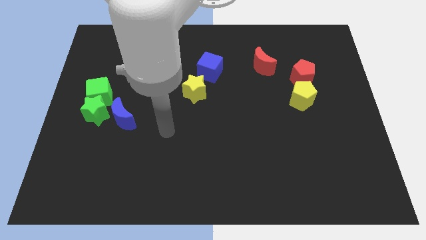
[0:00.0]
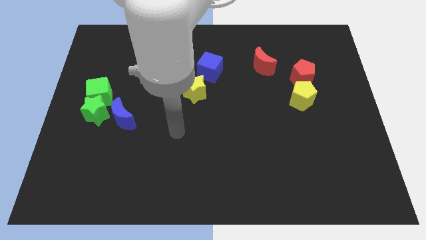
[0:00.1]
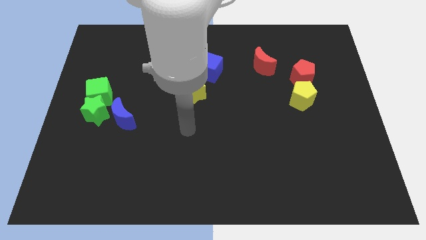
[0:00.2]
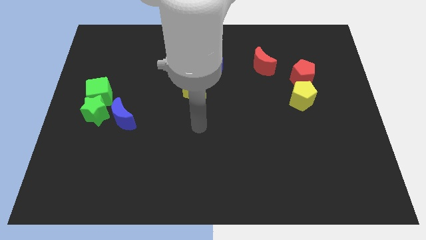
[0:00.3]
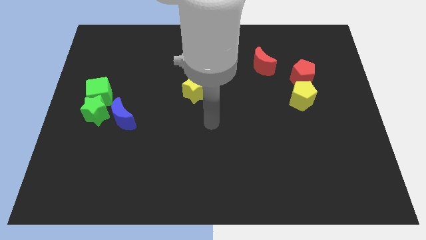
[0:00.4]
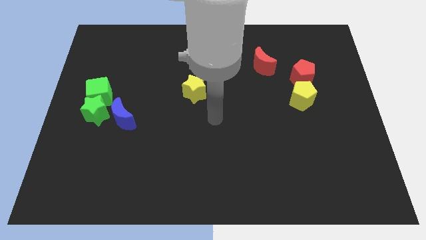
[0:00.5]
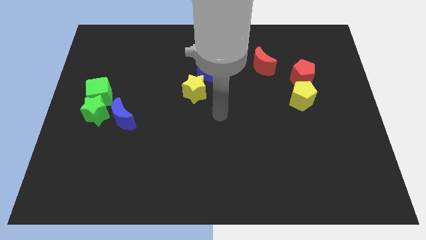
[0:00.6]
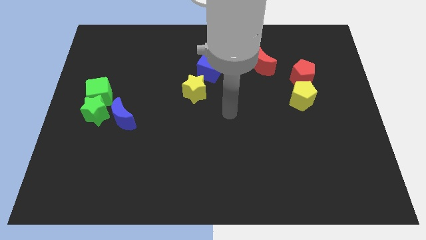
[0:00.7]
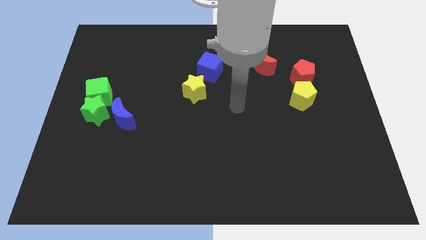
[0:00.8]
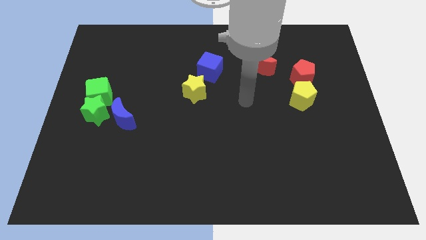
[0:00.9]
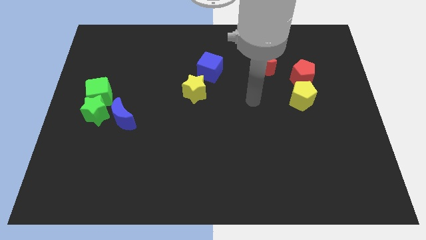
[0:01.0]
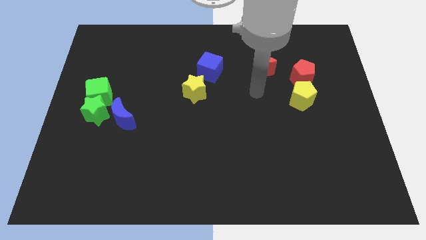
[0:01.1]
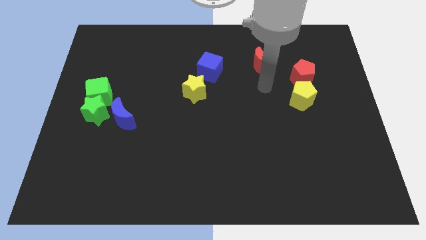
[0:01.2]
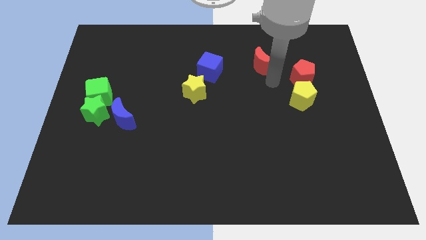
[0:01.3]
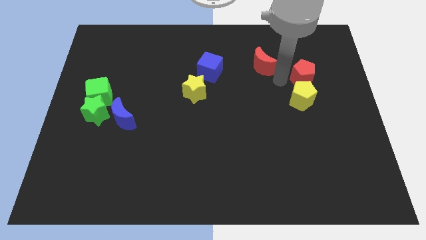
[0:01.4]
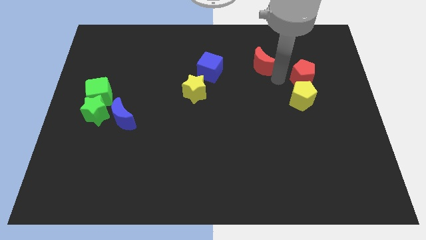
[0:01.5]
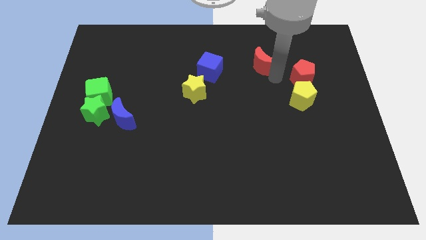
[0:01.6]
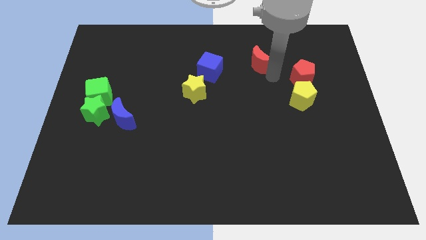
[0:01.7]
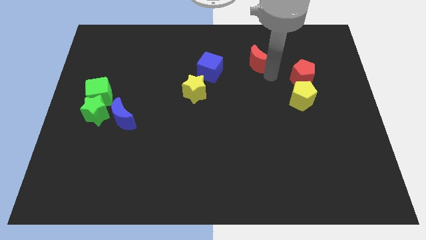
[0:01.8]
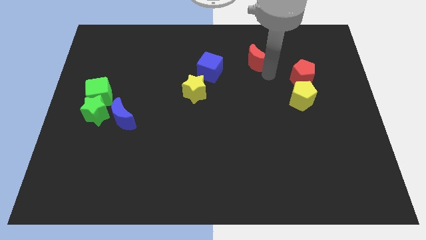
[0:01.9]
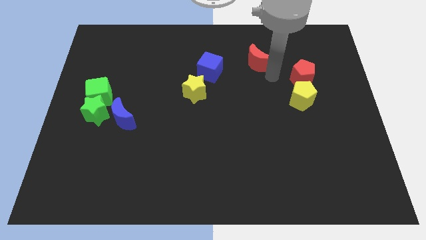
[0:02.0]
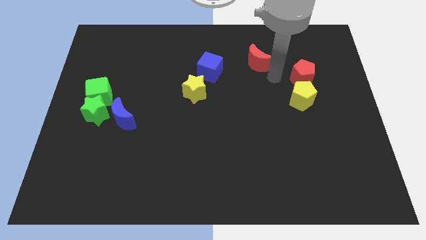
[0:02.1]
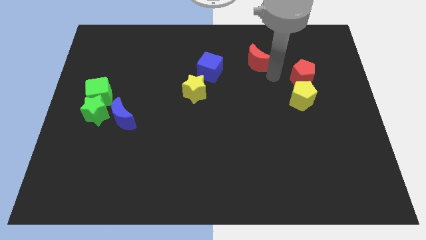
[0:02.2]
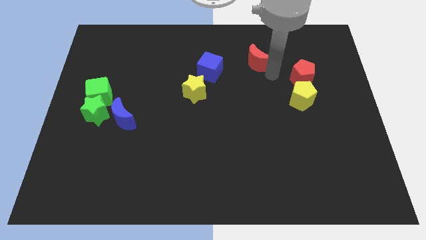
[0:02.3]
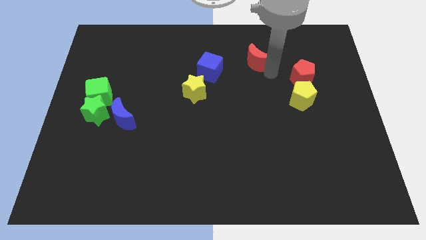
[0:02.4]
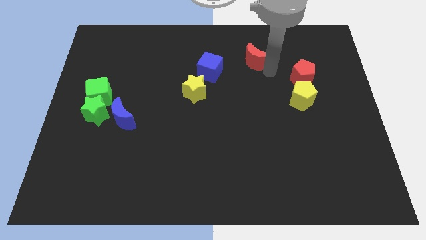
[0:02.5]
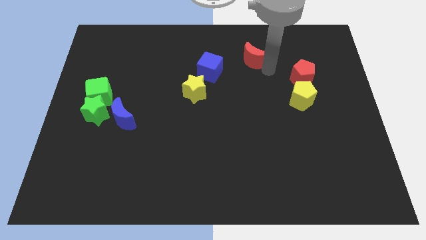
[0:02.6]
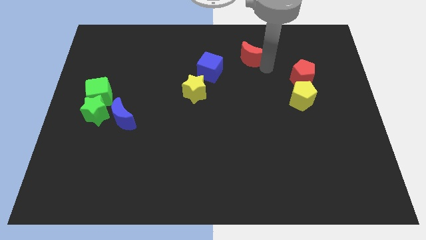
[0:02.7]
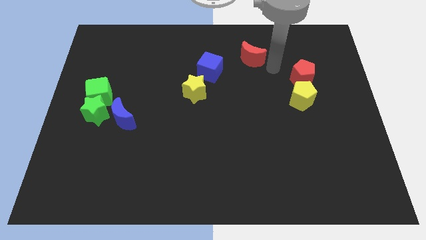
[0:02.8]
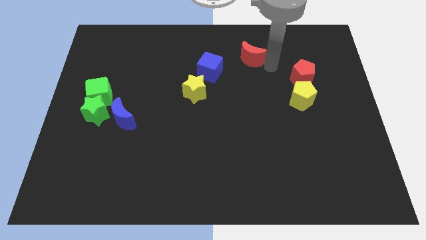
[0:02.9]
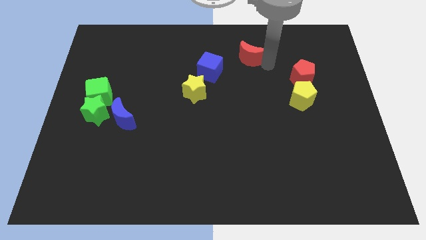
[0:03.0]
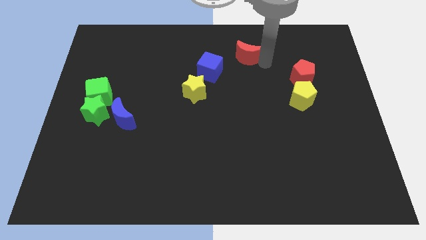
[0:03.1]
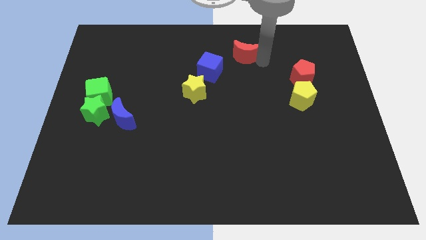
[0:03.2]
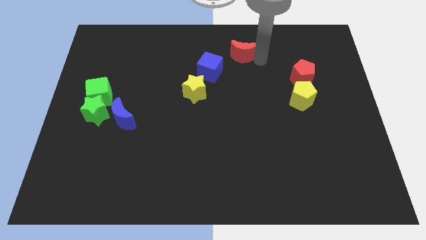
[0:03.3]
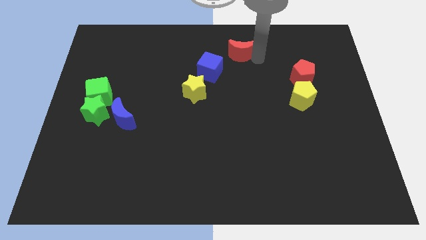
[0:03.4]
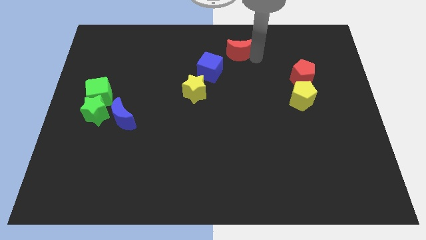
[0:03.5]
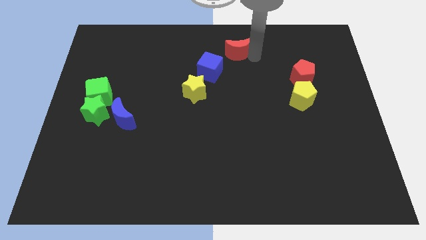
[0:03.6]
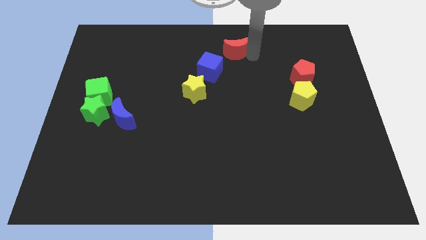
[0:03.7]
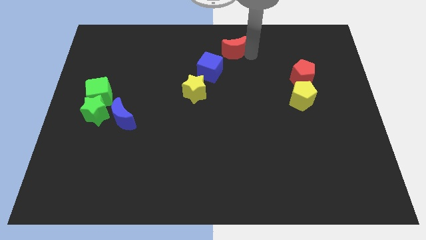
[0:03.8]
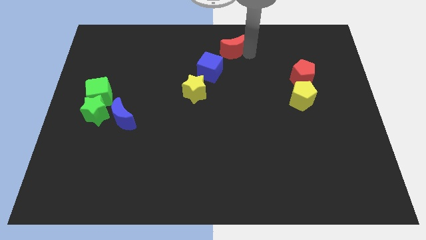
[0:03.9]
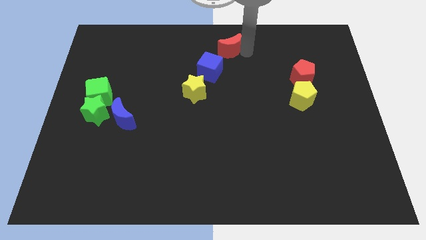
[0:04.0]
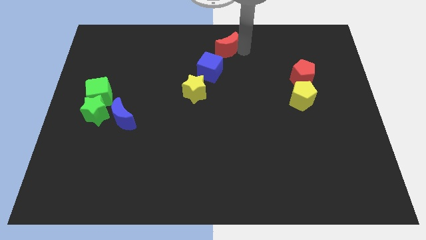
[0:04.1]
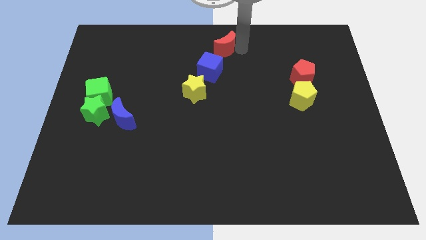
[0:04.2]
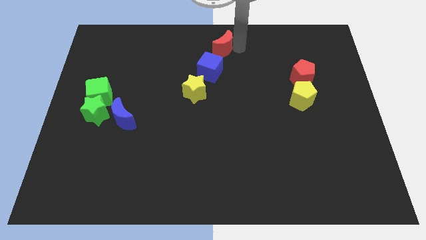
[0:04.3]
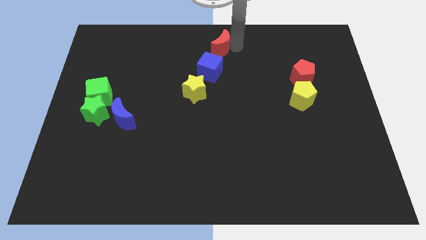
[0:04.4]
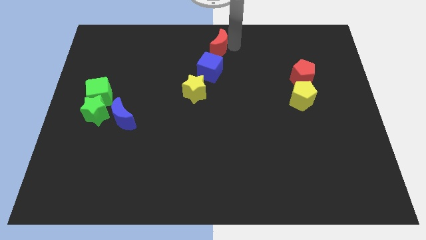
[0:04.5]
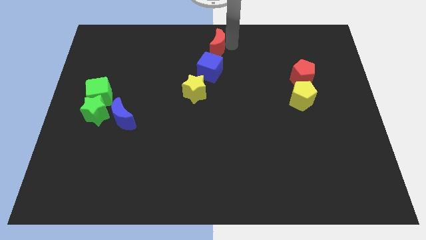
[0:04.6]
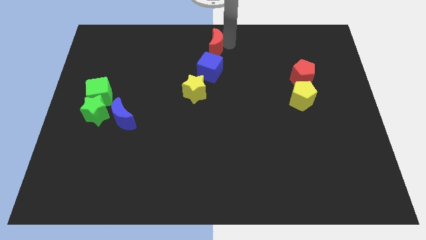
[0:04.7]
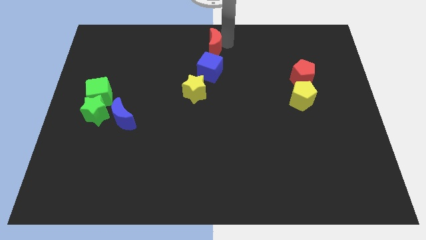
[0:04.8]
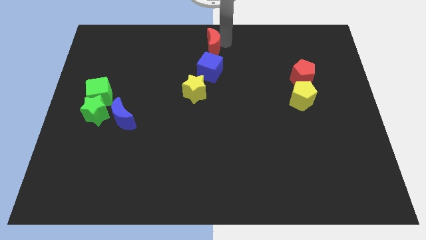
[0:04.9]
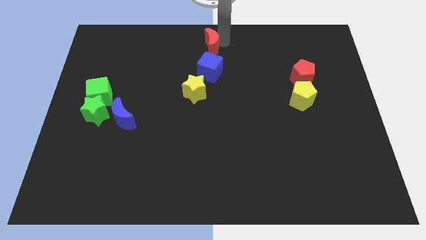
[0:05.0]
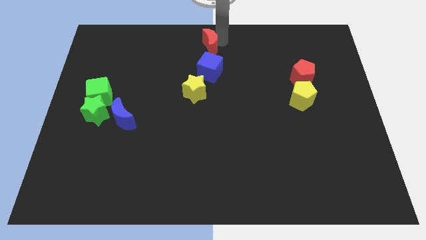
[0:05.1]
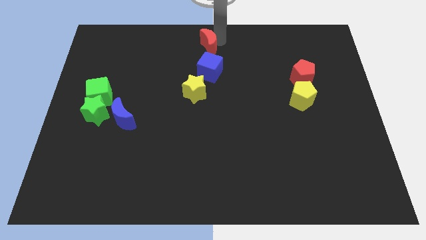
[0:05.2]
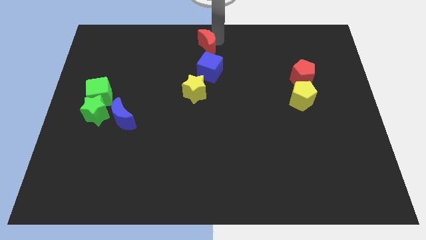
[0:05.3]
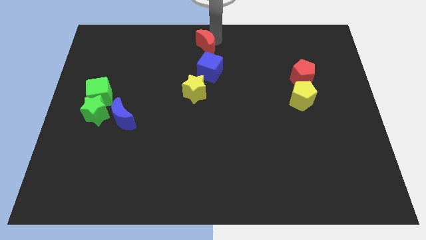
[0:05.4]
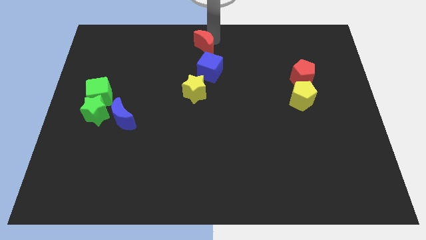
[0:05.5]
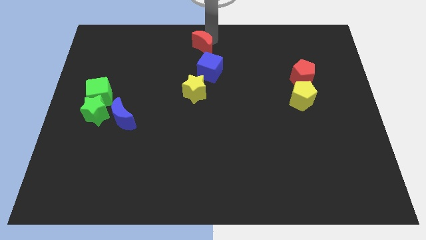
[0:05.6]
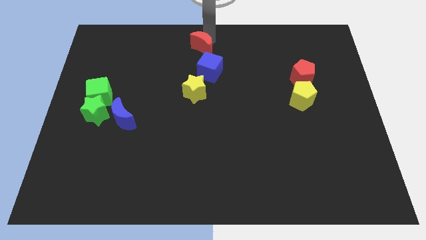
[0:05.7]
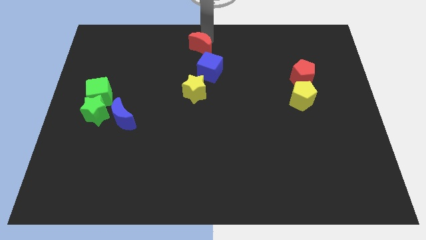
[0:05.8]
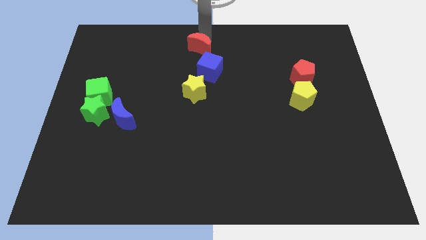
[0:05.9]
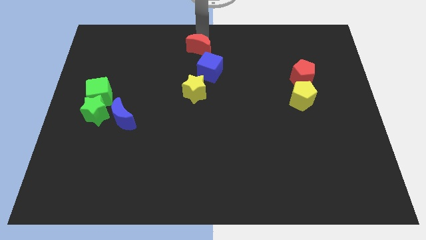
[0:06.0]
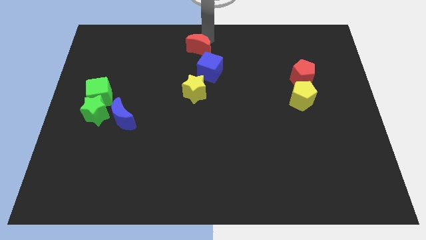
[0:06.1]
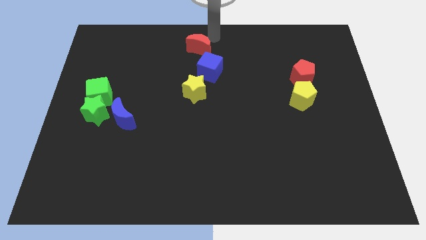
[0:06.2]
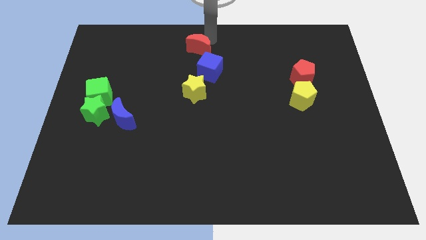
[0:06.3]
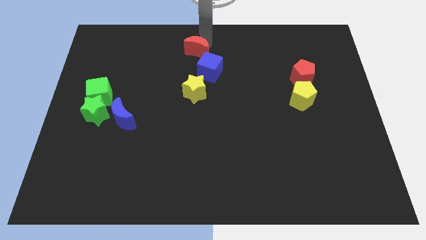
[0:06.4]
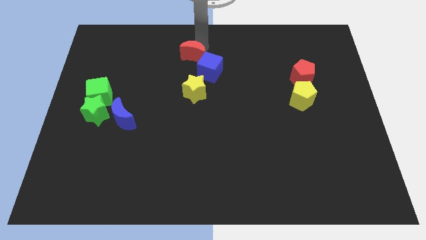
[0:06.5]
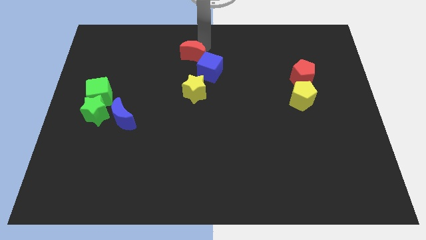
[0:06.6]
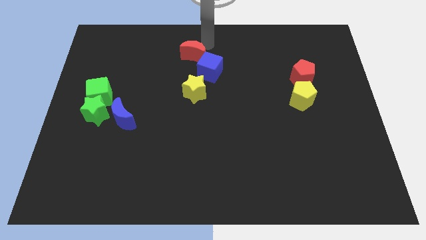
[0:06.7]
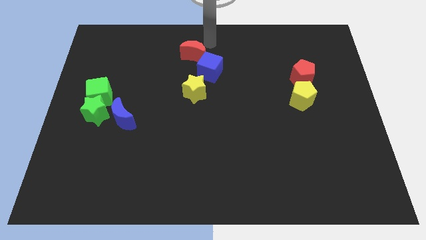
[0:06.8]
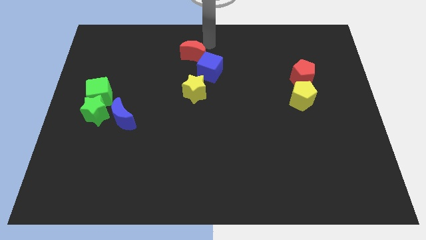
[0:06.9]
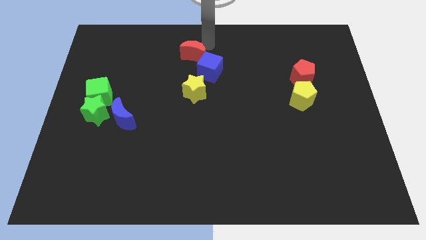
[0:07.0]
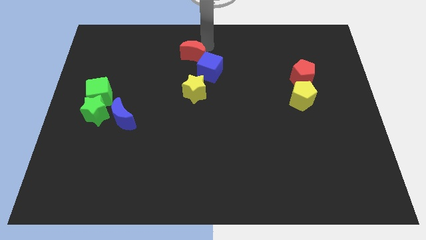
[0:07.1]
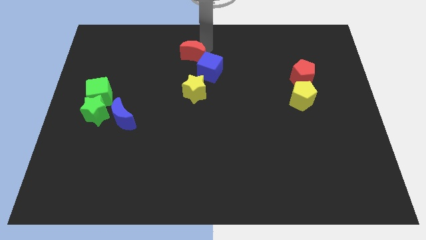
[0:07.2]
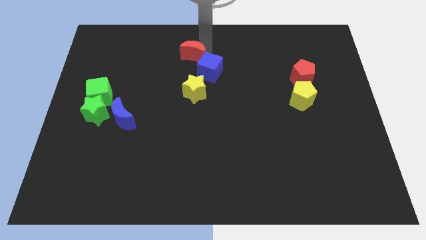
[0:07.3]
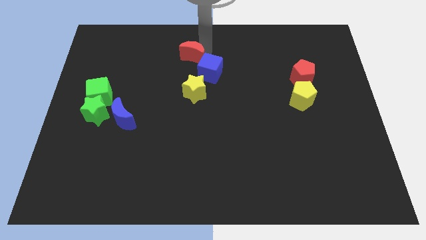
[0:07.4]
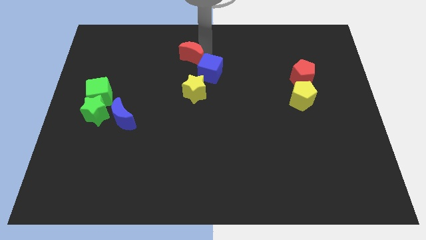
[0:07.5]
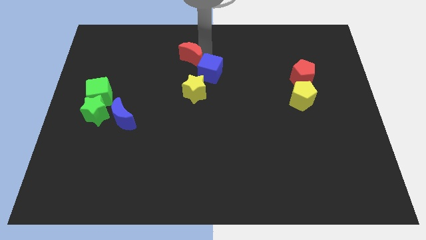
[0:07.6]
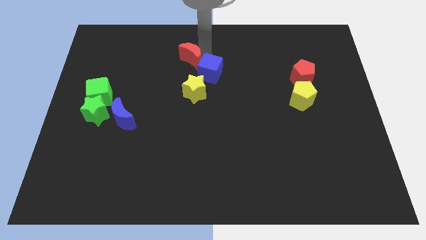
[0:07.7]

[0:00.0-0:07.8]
push the red moon to the left side of the blue cube
